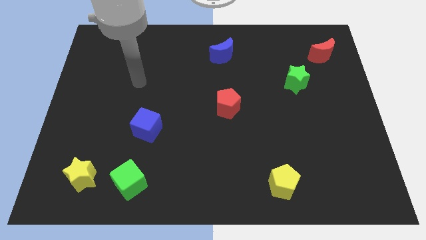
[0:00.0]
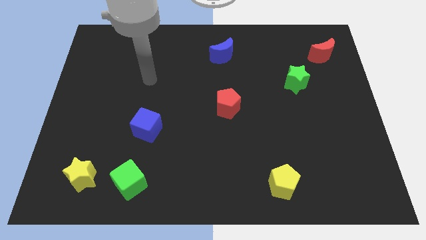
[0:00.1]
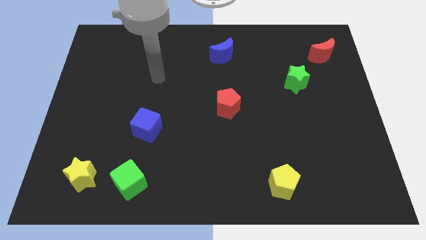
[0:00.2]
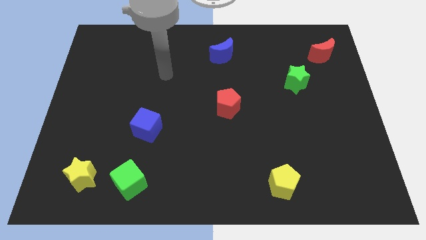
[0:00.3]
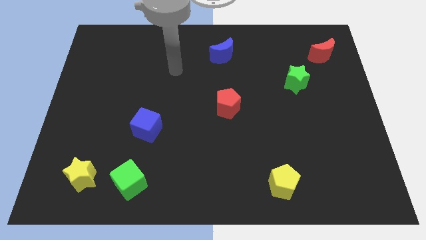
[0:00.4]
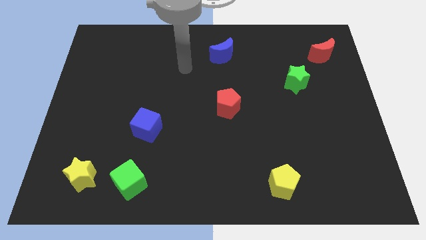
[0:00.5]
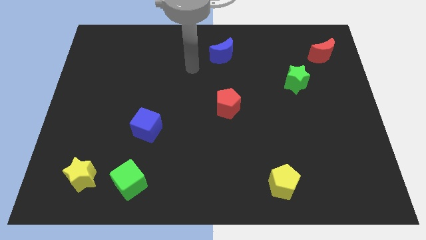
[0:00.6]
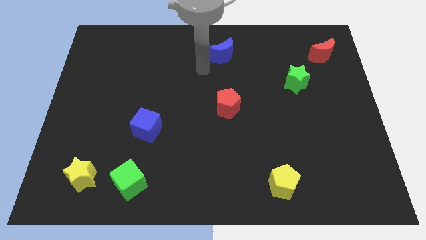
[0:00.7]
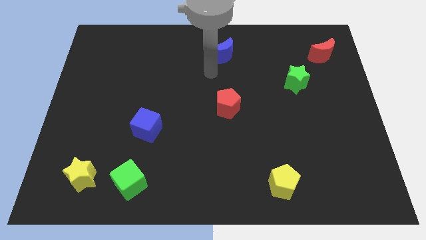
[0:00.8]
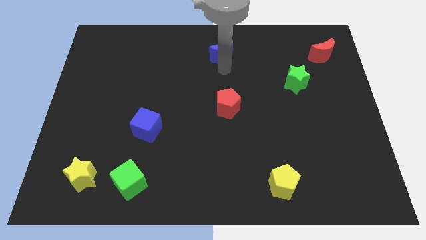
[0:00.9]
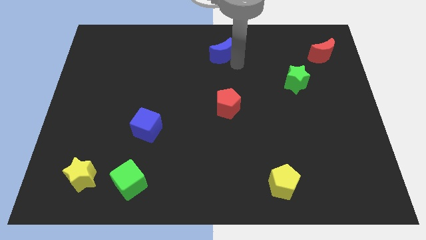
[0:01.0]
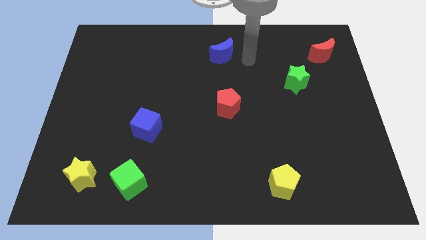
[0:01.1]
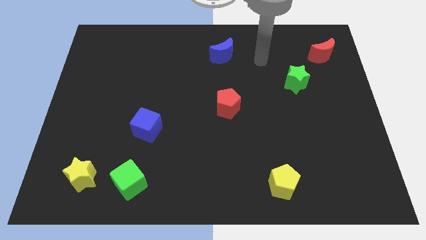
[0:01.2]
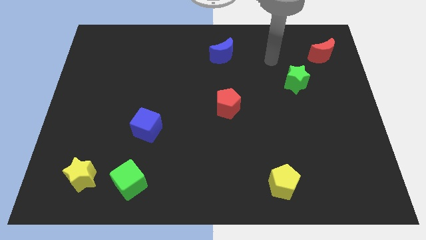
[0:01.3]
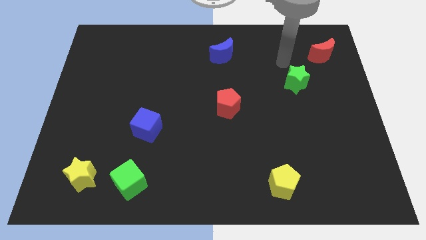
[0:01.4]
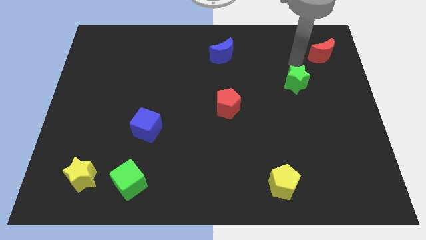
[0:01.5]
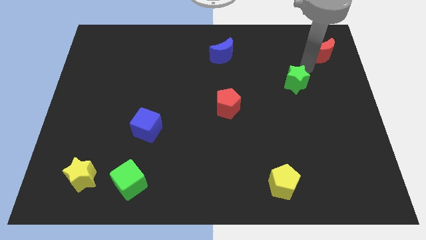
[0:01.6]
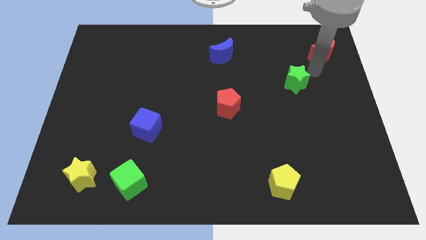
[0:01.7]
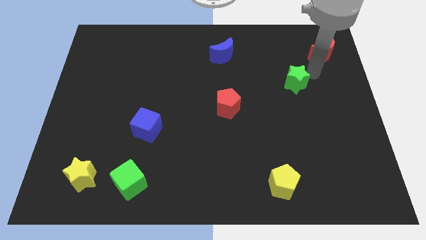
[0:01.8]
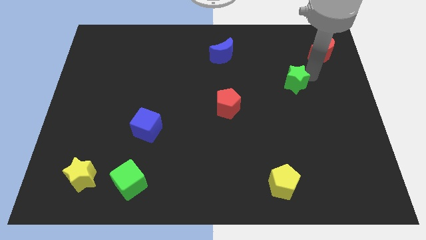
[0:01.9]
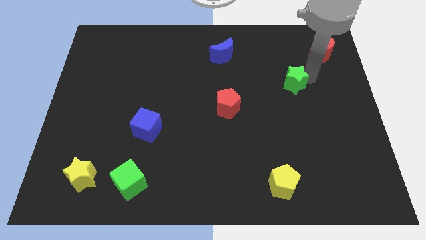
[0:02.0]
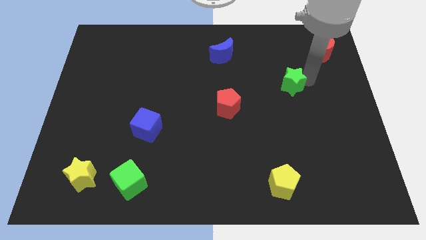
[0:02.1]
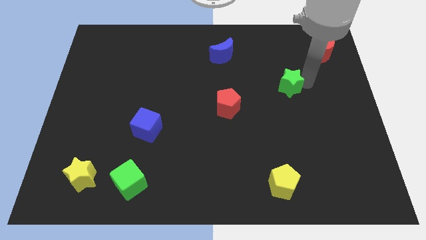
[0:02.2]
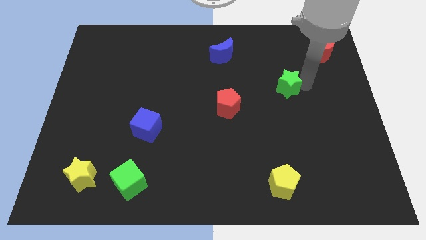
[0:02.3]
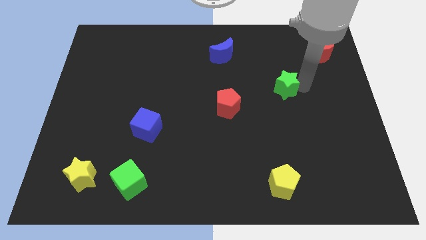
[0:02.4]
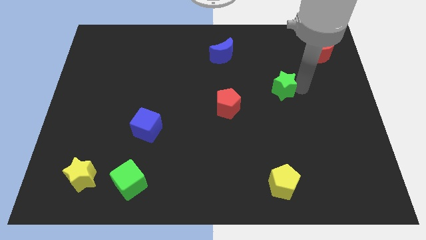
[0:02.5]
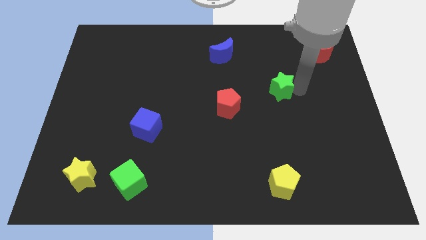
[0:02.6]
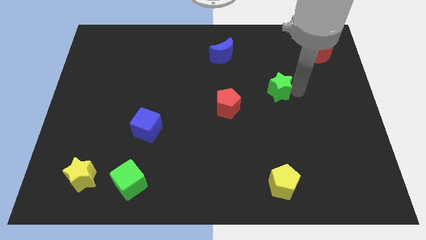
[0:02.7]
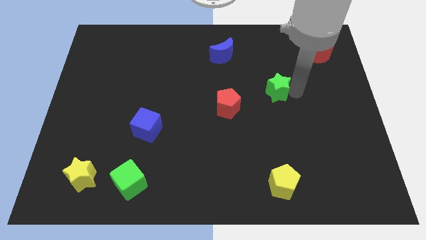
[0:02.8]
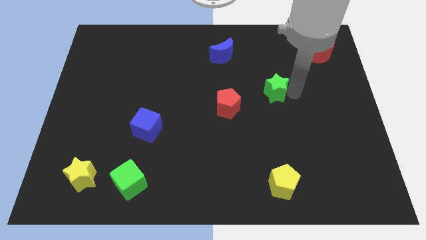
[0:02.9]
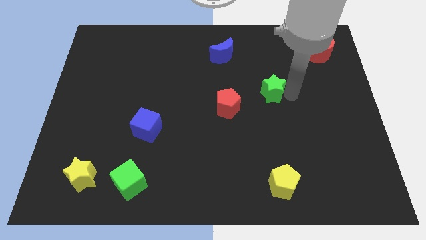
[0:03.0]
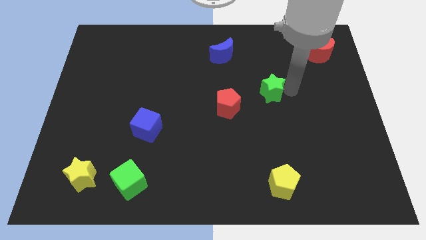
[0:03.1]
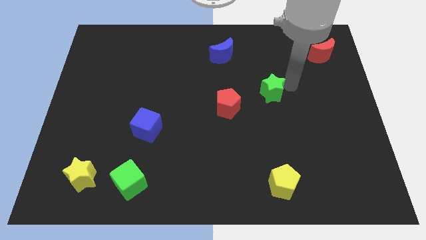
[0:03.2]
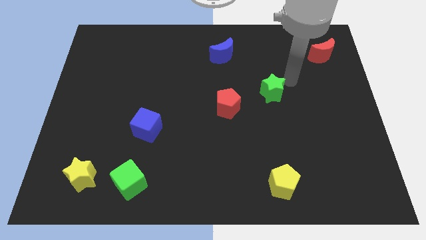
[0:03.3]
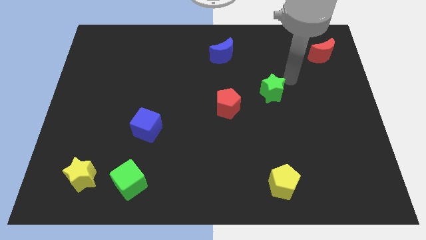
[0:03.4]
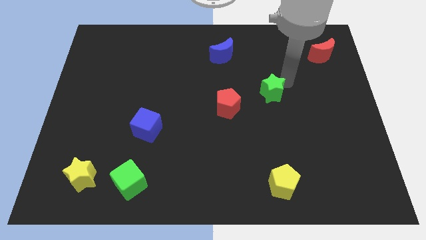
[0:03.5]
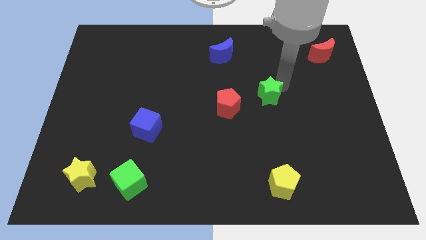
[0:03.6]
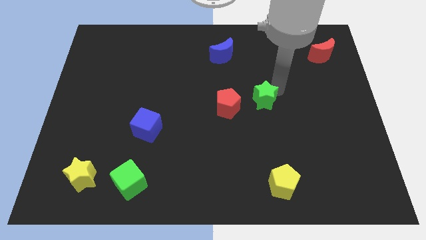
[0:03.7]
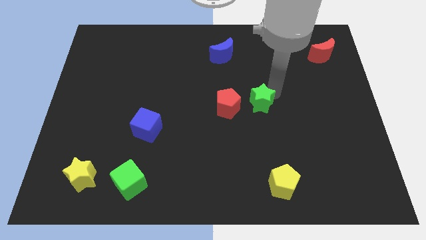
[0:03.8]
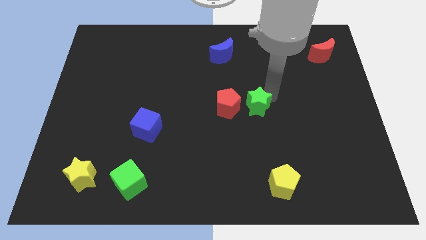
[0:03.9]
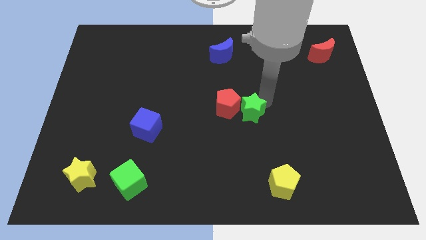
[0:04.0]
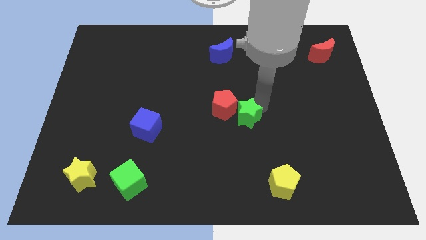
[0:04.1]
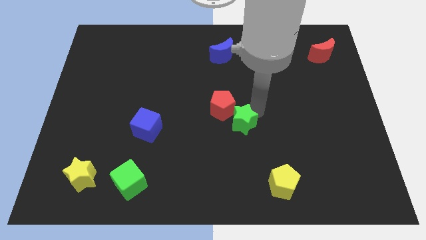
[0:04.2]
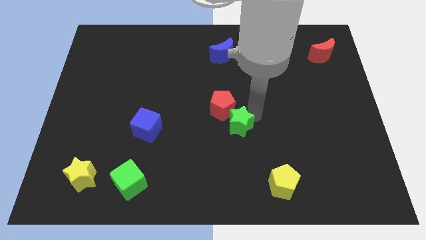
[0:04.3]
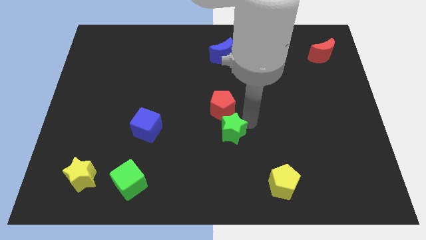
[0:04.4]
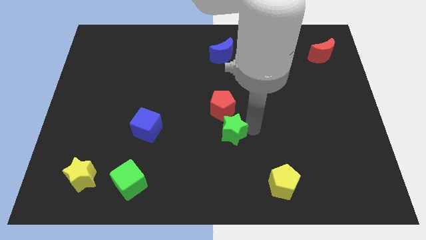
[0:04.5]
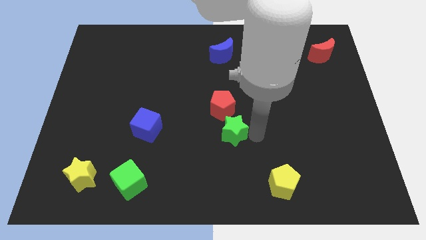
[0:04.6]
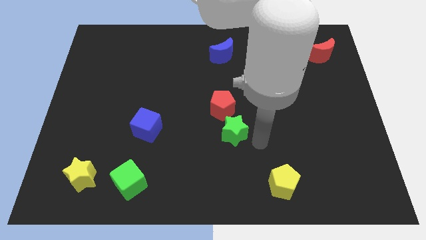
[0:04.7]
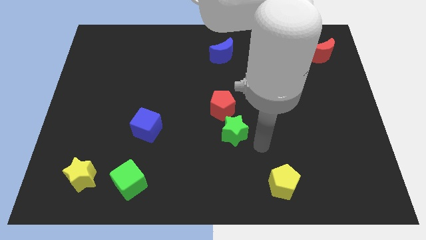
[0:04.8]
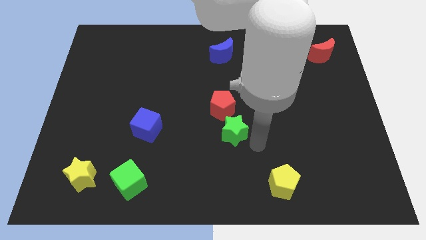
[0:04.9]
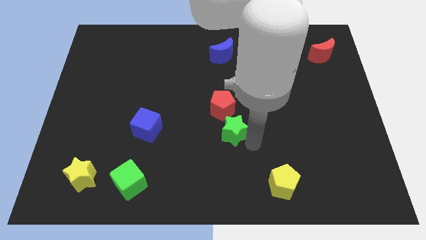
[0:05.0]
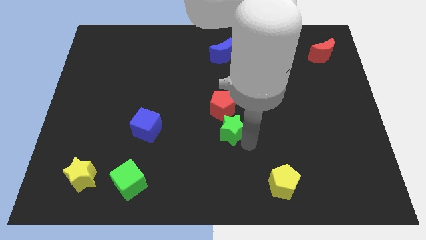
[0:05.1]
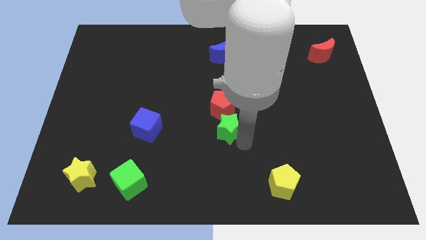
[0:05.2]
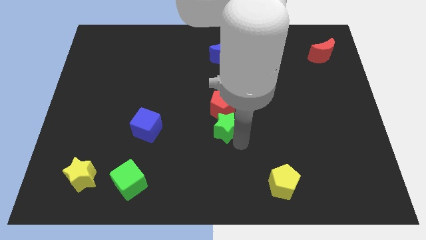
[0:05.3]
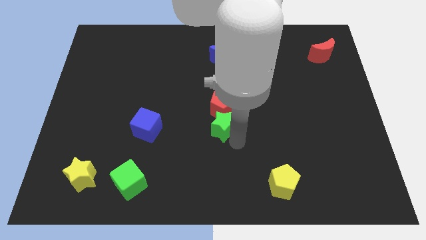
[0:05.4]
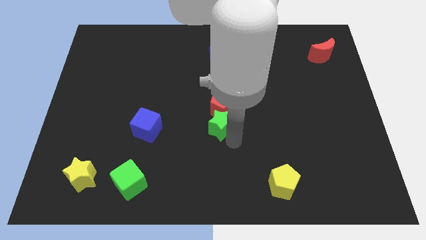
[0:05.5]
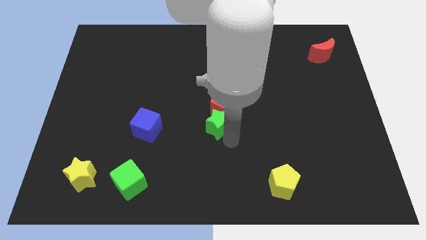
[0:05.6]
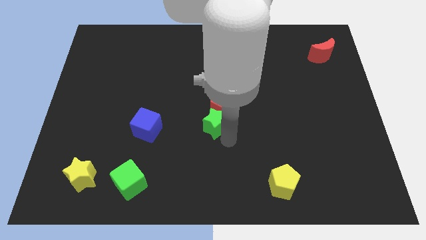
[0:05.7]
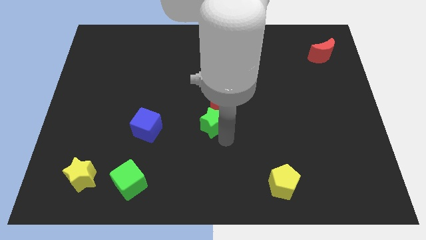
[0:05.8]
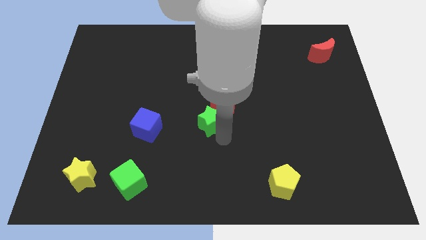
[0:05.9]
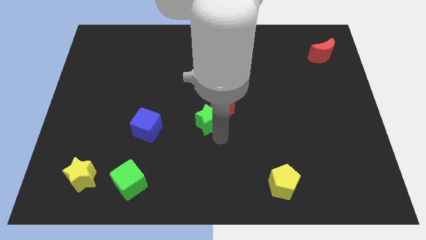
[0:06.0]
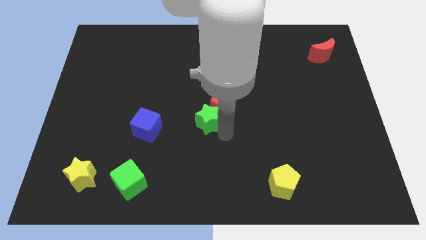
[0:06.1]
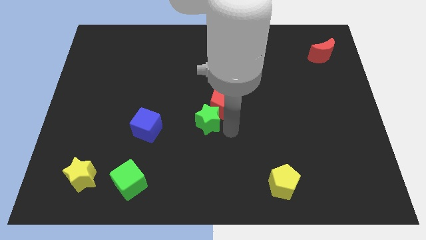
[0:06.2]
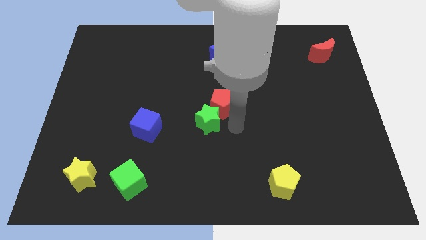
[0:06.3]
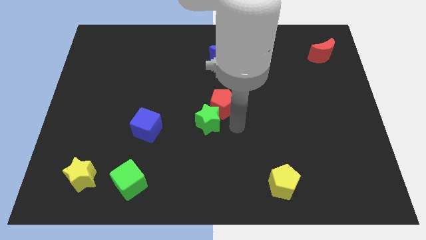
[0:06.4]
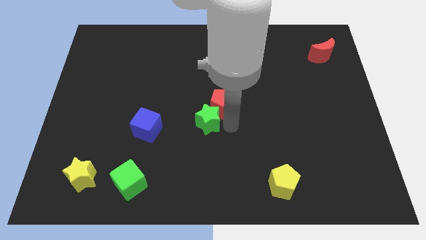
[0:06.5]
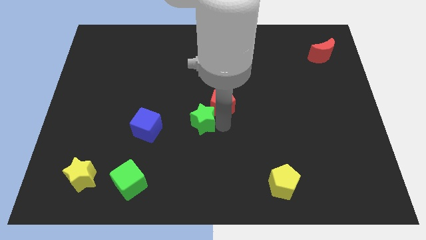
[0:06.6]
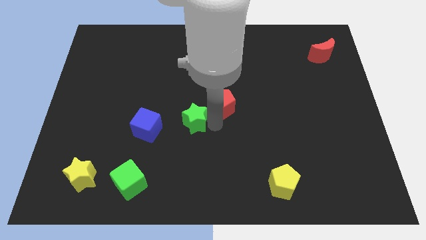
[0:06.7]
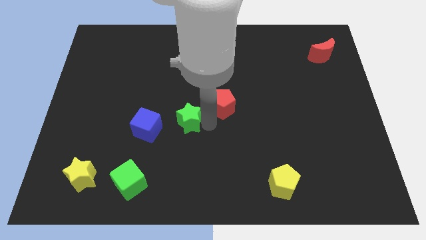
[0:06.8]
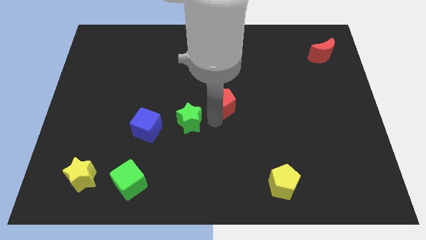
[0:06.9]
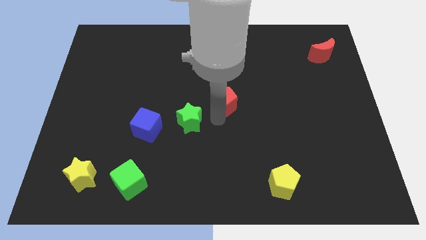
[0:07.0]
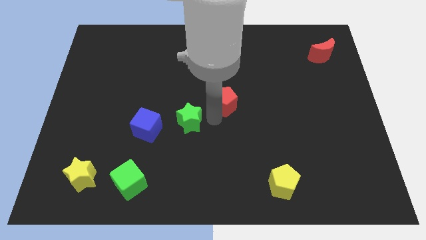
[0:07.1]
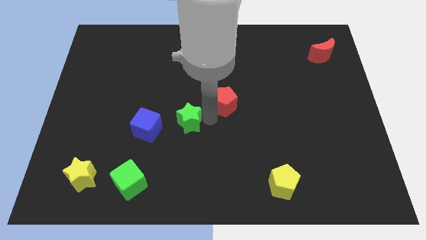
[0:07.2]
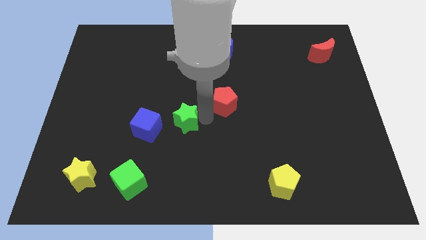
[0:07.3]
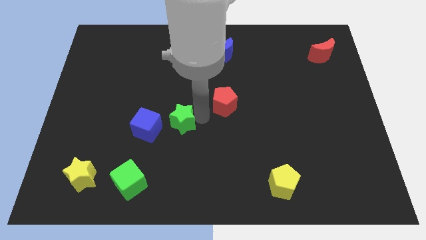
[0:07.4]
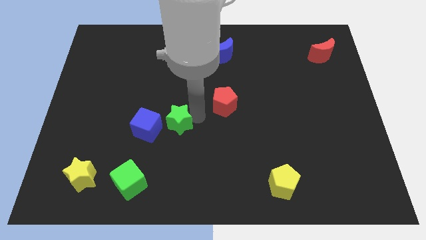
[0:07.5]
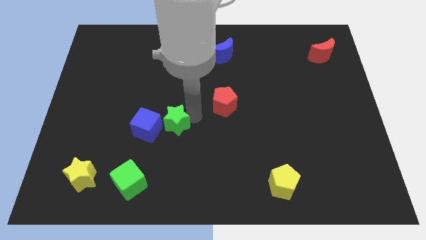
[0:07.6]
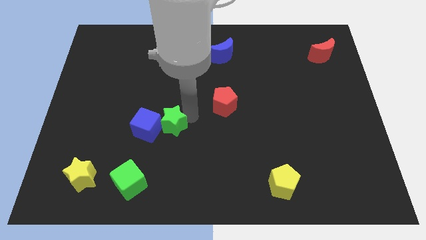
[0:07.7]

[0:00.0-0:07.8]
put the green star towards the blue cube
